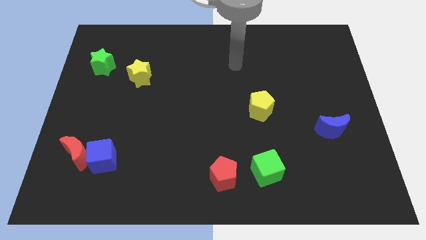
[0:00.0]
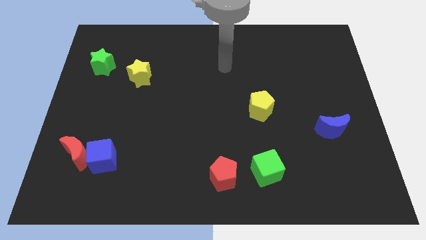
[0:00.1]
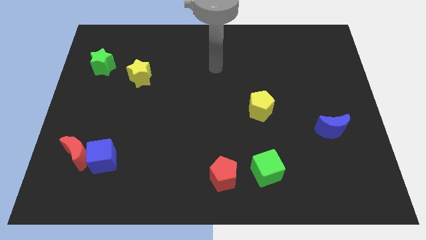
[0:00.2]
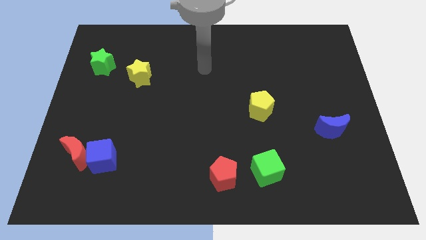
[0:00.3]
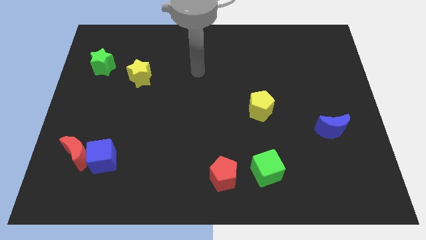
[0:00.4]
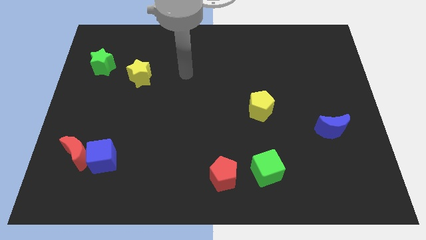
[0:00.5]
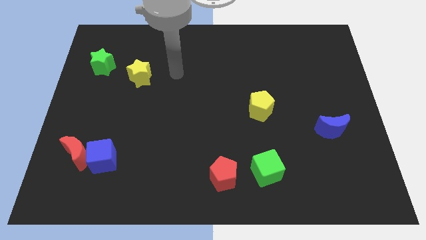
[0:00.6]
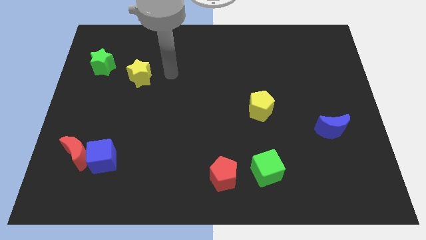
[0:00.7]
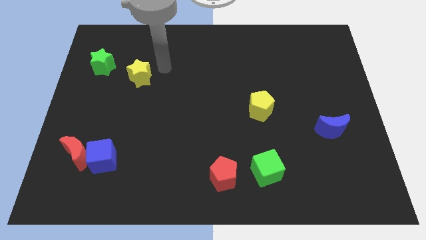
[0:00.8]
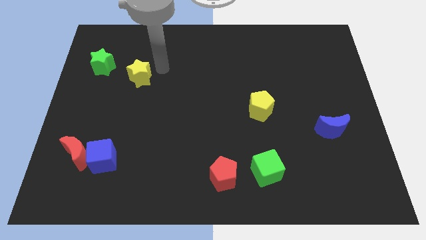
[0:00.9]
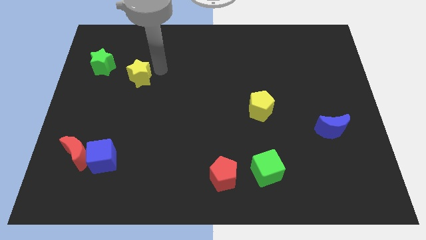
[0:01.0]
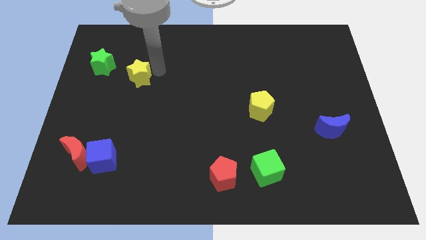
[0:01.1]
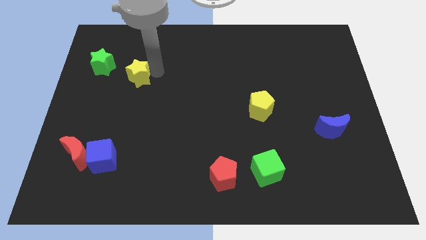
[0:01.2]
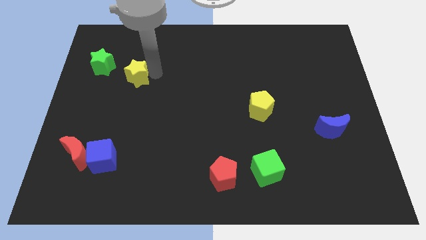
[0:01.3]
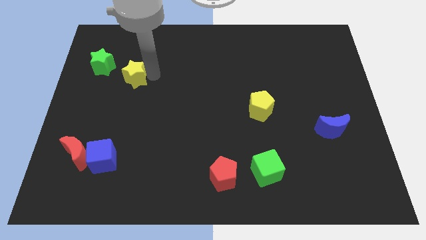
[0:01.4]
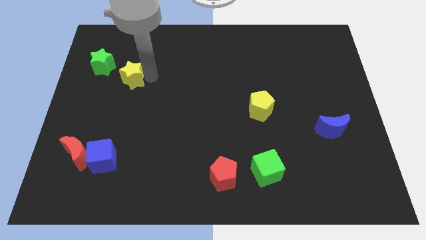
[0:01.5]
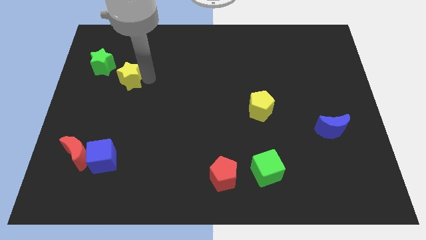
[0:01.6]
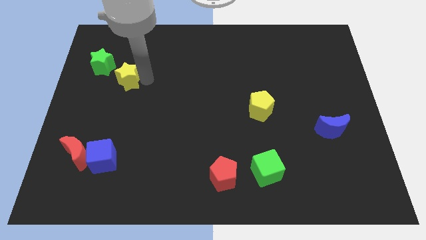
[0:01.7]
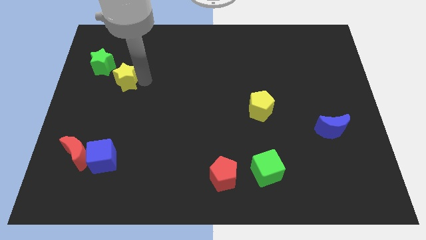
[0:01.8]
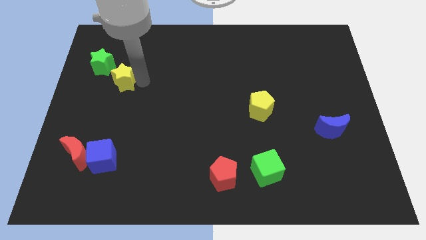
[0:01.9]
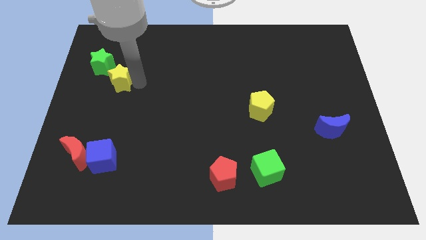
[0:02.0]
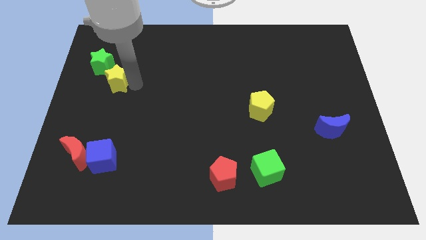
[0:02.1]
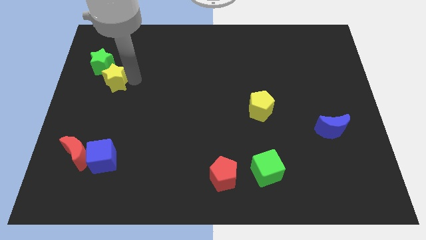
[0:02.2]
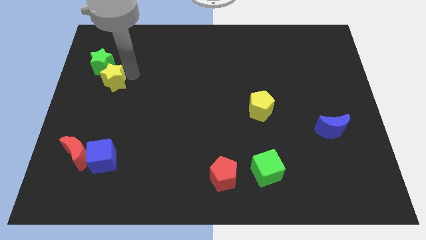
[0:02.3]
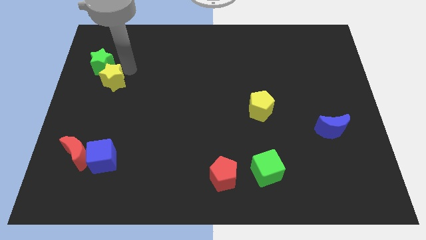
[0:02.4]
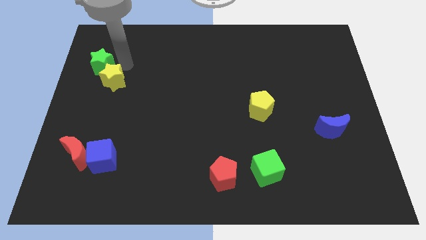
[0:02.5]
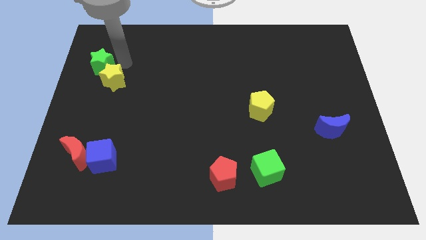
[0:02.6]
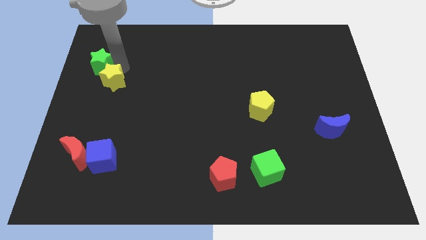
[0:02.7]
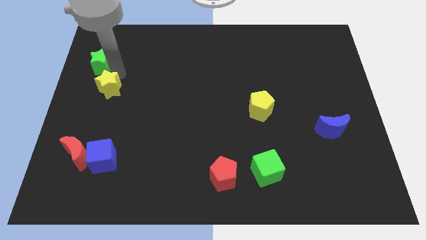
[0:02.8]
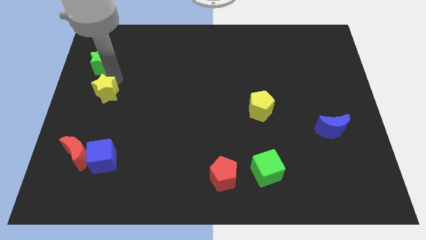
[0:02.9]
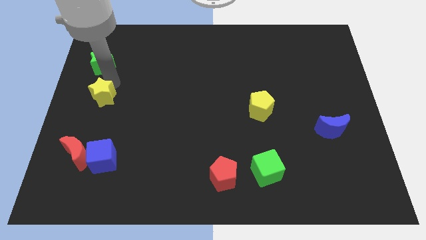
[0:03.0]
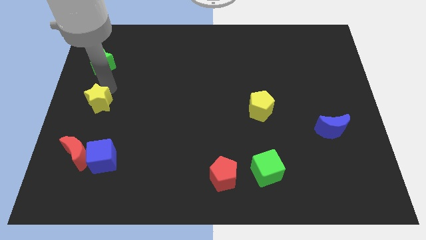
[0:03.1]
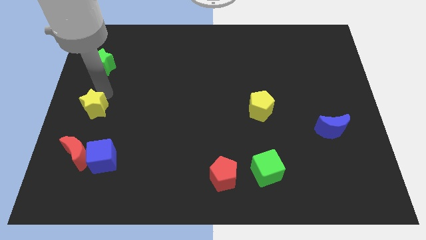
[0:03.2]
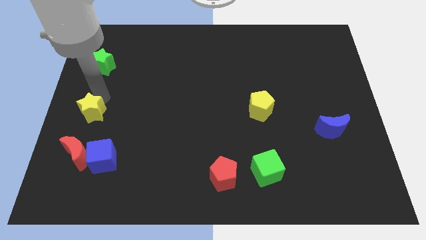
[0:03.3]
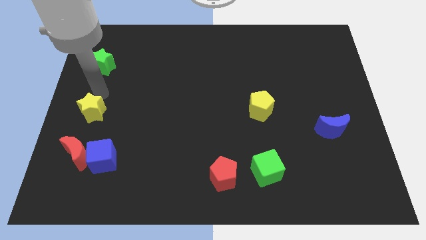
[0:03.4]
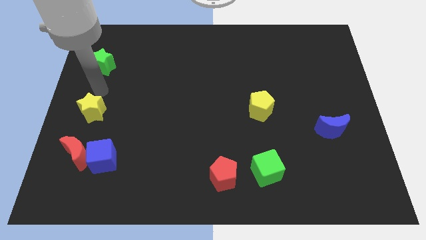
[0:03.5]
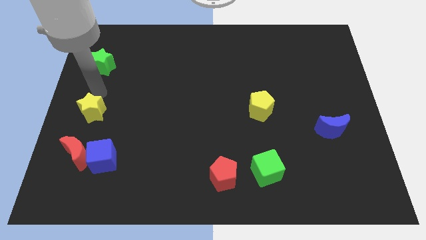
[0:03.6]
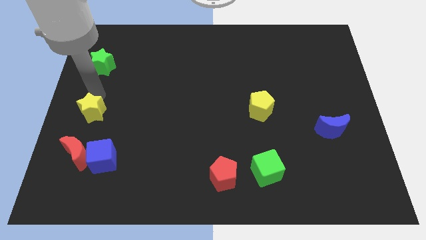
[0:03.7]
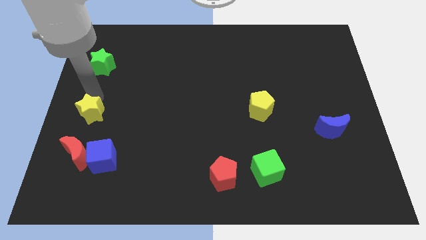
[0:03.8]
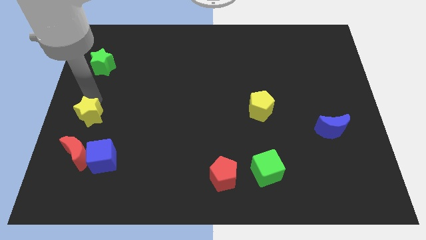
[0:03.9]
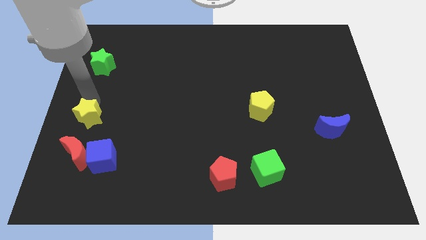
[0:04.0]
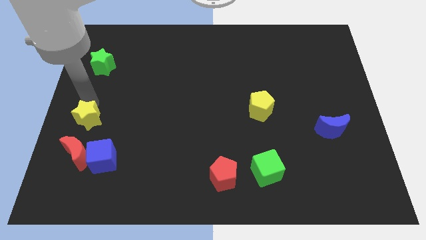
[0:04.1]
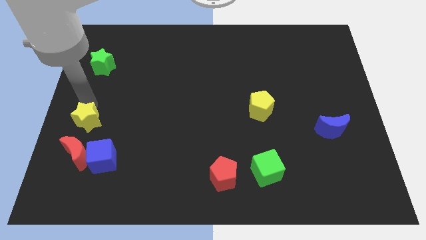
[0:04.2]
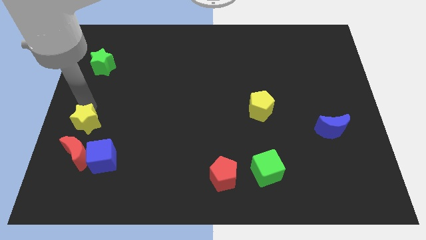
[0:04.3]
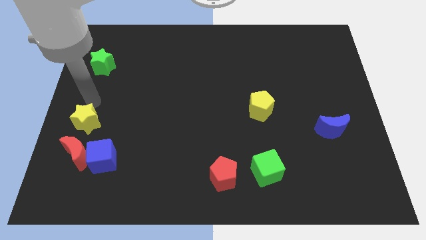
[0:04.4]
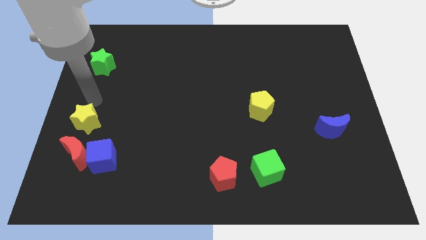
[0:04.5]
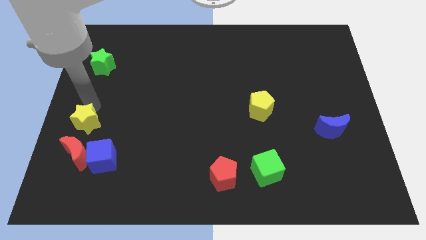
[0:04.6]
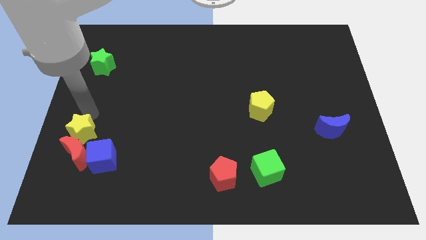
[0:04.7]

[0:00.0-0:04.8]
put the yellow star towards the red moon

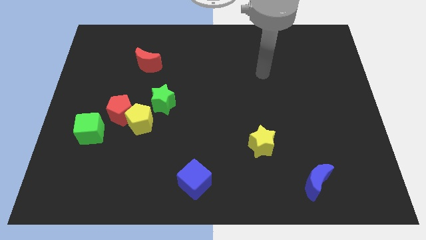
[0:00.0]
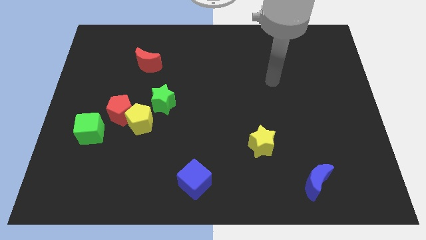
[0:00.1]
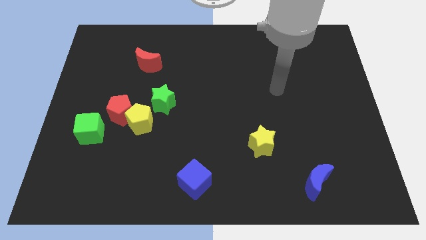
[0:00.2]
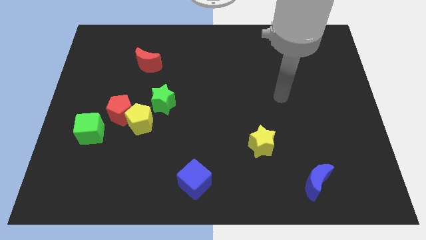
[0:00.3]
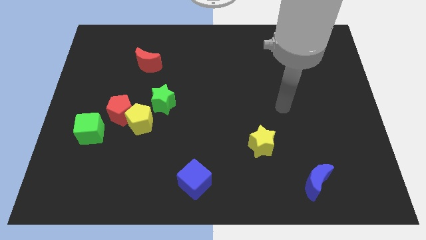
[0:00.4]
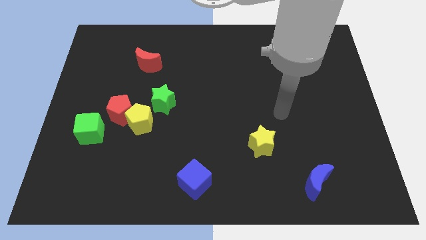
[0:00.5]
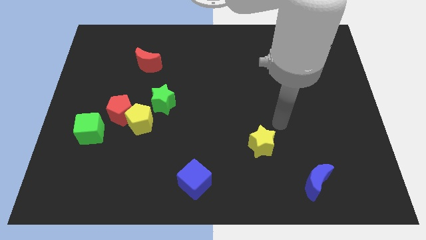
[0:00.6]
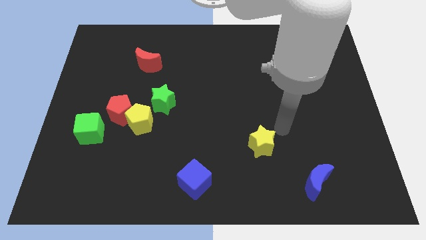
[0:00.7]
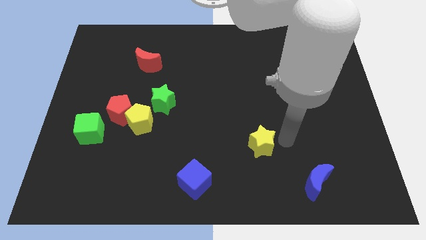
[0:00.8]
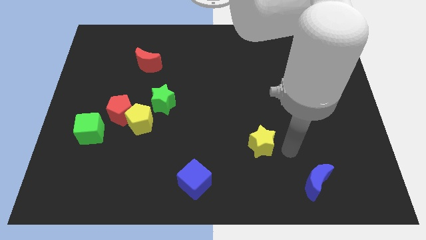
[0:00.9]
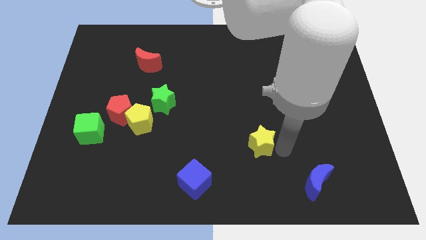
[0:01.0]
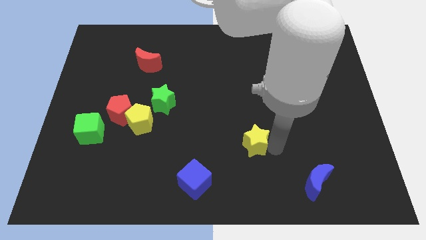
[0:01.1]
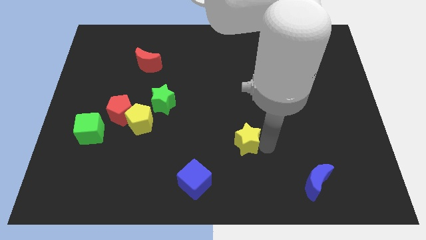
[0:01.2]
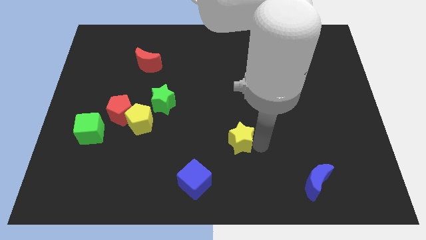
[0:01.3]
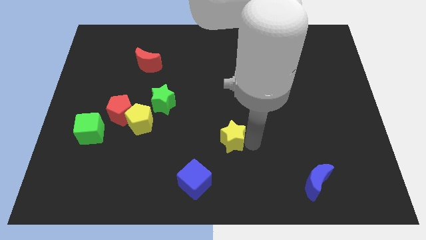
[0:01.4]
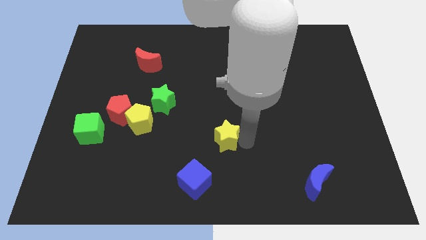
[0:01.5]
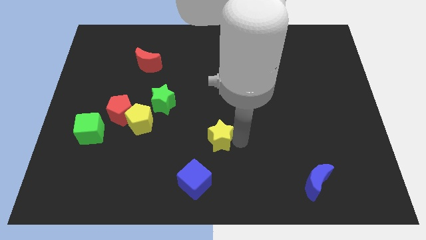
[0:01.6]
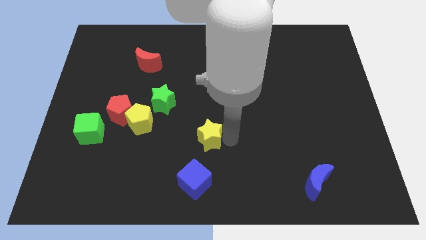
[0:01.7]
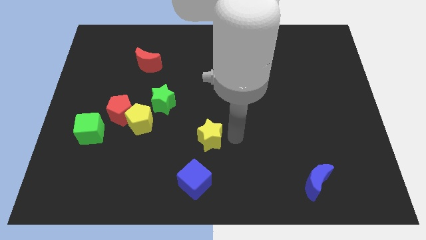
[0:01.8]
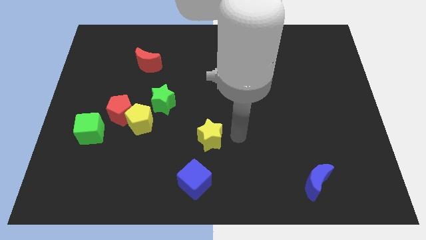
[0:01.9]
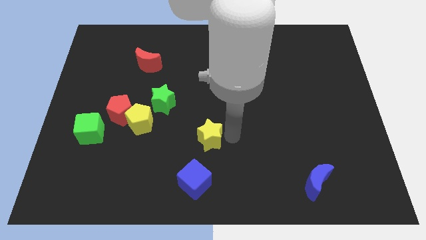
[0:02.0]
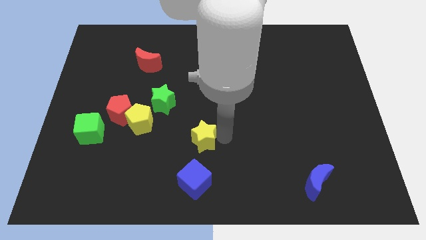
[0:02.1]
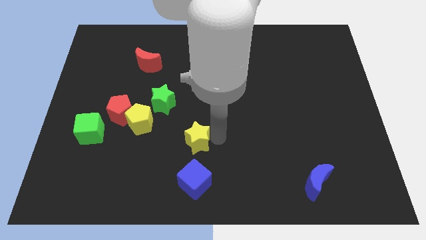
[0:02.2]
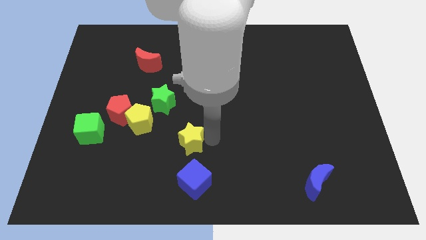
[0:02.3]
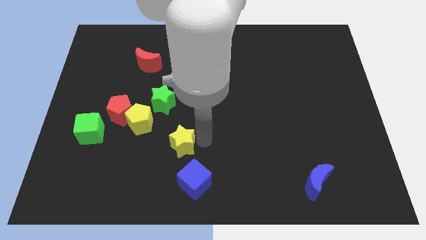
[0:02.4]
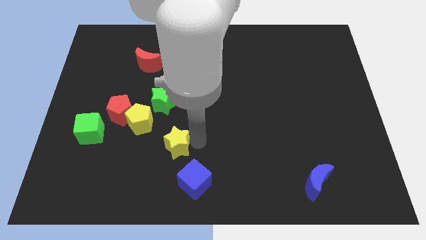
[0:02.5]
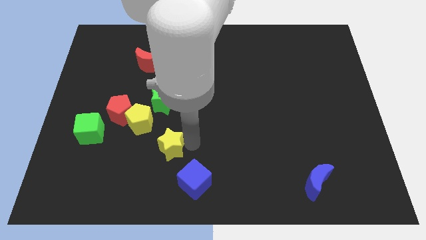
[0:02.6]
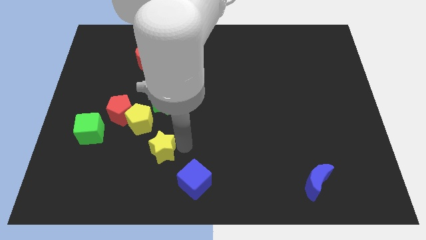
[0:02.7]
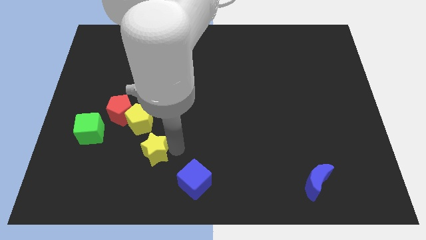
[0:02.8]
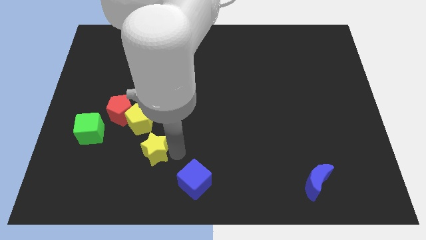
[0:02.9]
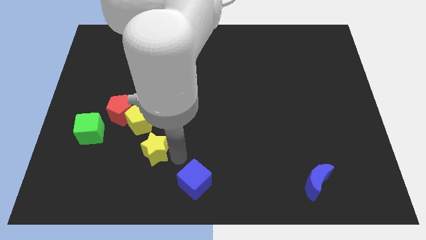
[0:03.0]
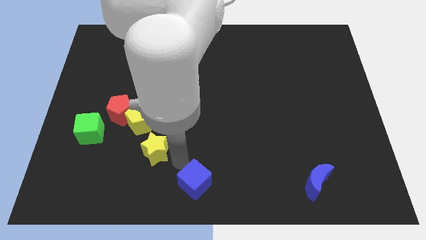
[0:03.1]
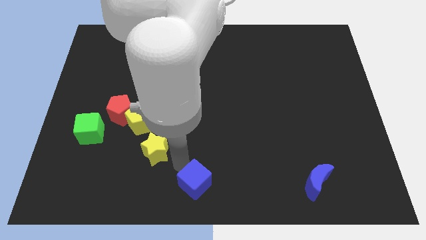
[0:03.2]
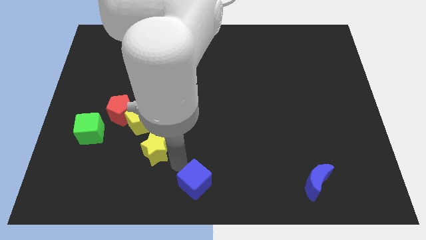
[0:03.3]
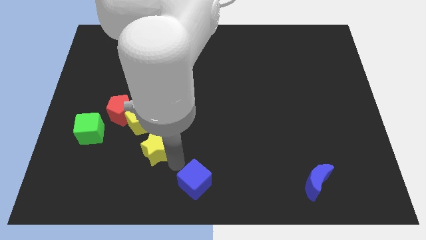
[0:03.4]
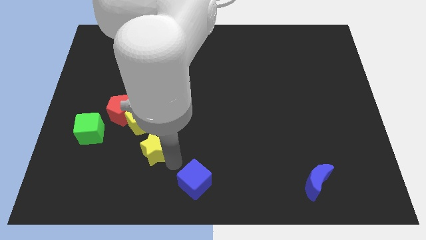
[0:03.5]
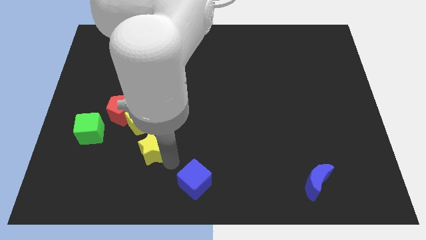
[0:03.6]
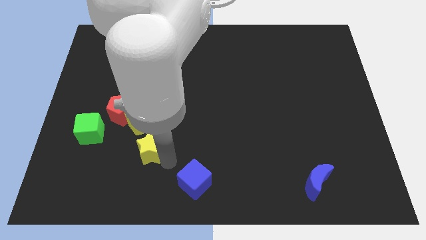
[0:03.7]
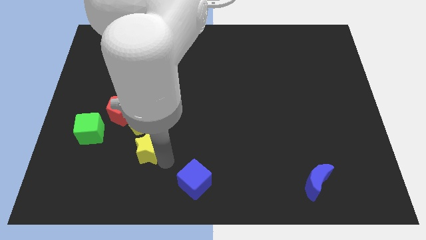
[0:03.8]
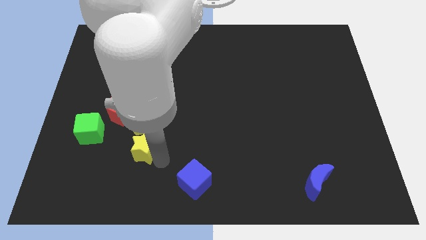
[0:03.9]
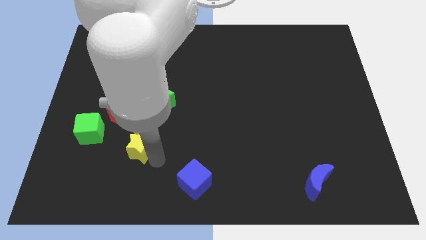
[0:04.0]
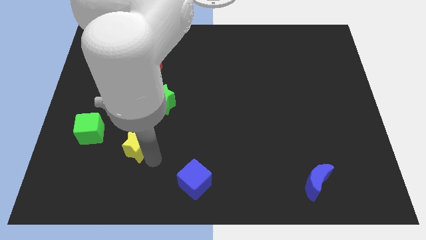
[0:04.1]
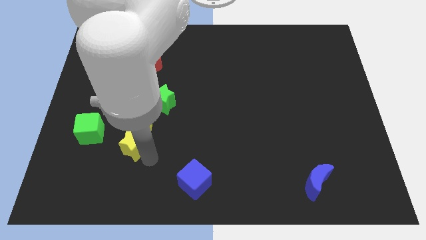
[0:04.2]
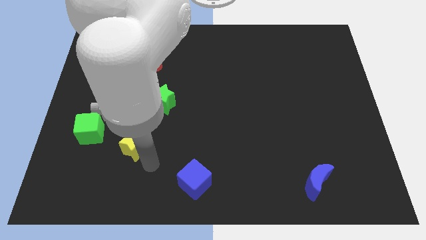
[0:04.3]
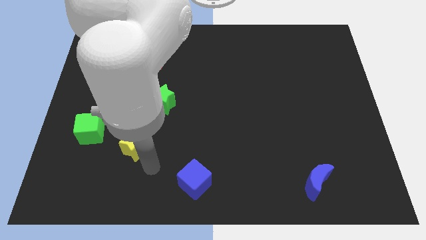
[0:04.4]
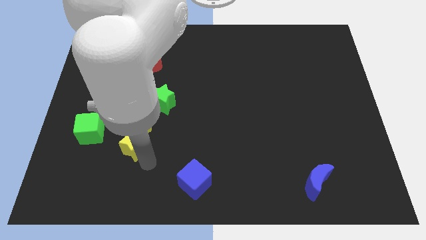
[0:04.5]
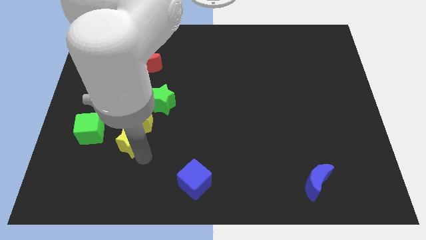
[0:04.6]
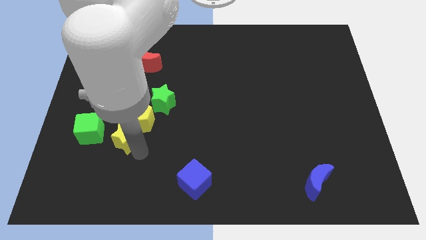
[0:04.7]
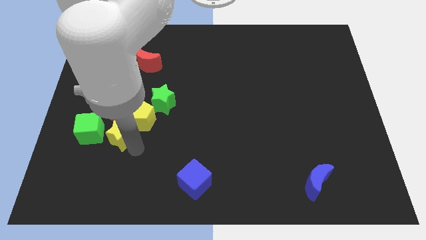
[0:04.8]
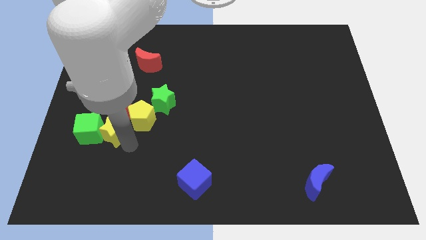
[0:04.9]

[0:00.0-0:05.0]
move the yellow star towards the red pentagon
